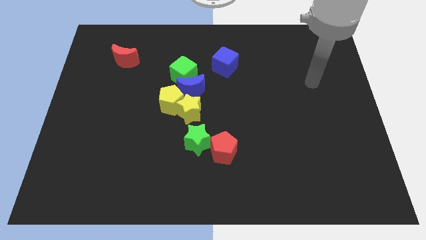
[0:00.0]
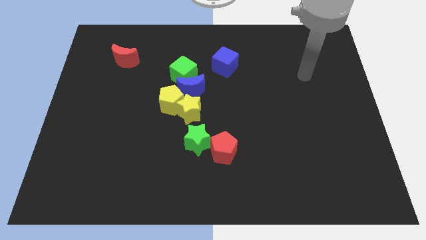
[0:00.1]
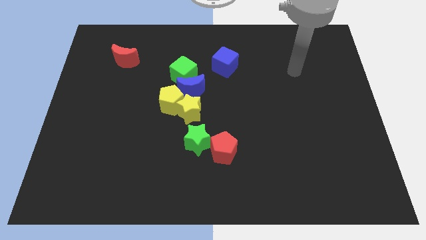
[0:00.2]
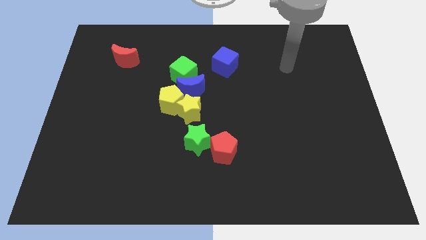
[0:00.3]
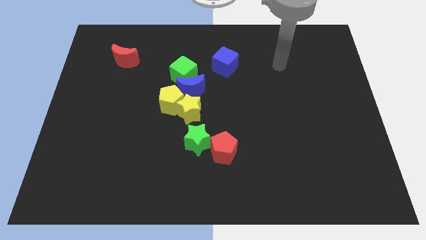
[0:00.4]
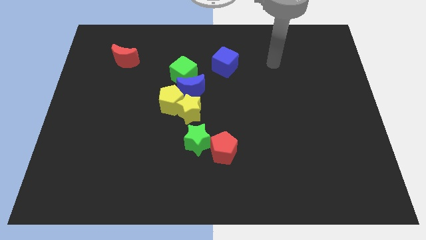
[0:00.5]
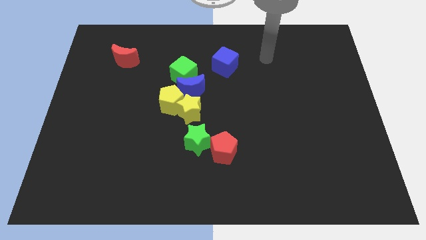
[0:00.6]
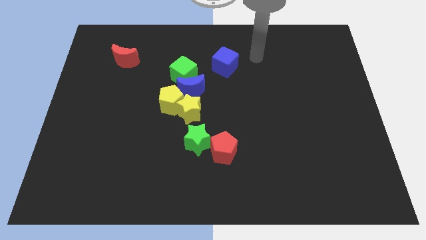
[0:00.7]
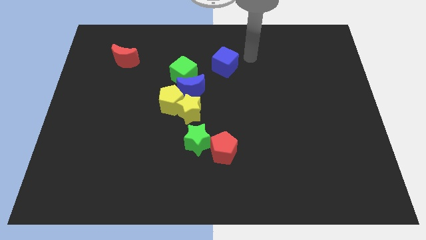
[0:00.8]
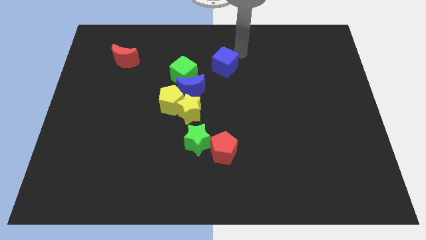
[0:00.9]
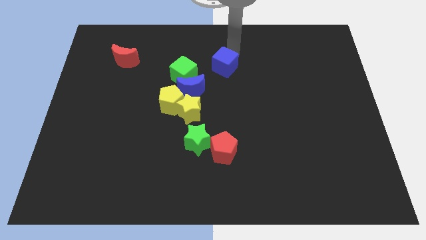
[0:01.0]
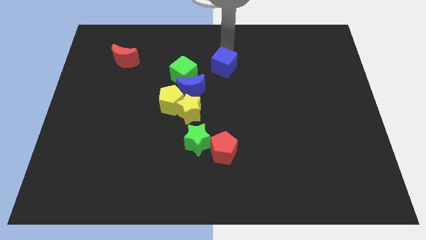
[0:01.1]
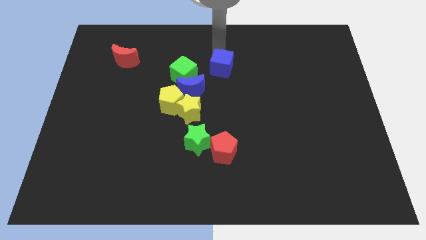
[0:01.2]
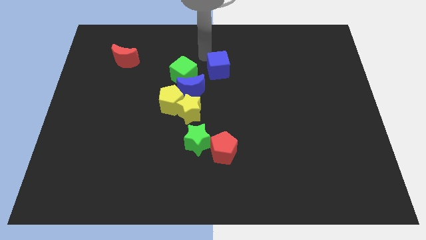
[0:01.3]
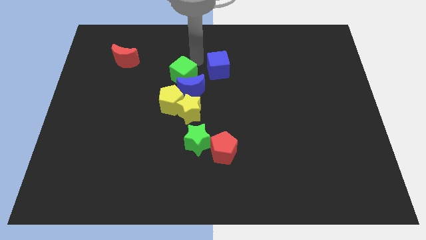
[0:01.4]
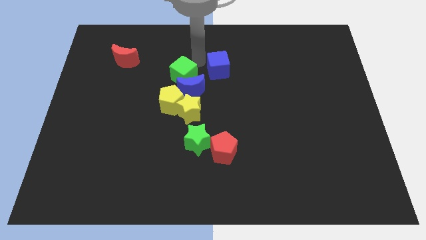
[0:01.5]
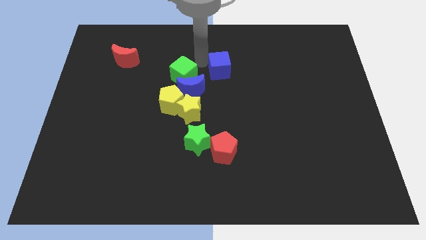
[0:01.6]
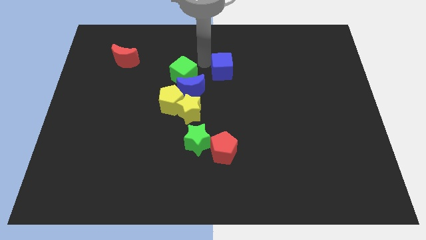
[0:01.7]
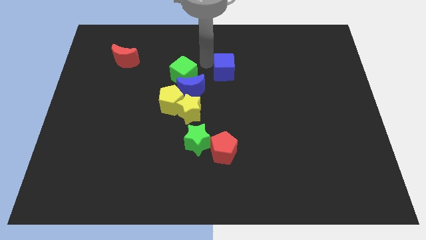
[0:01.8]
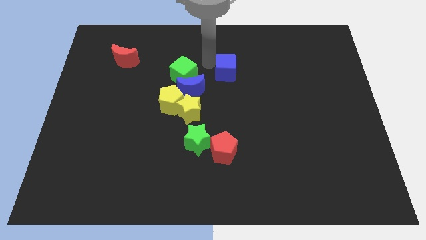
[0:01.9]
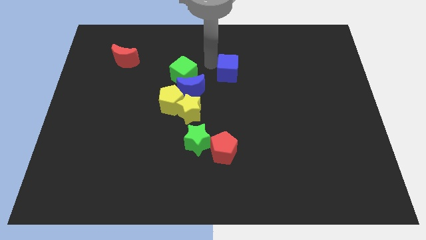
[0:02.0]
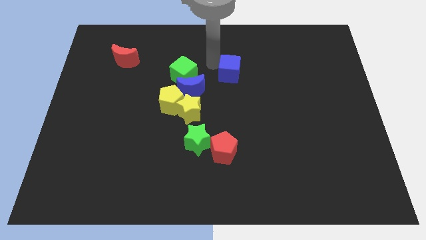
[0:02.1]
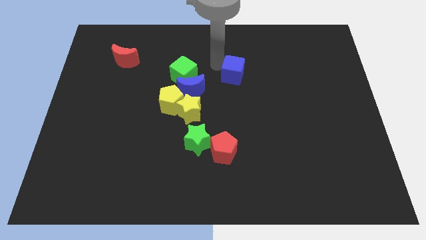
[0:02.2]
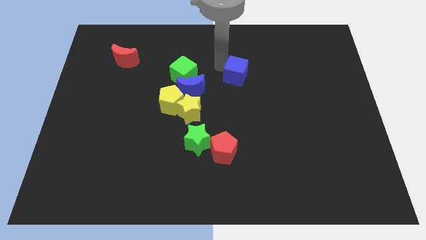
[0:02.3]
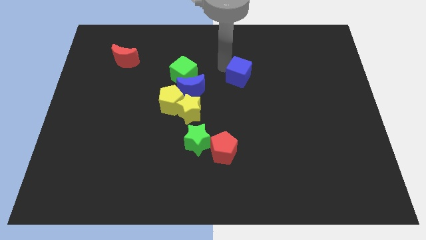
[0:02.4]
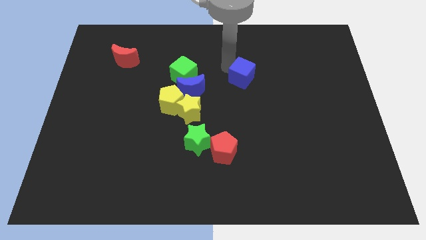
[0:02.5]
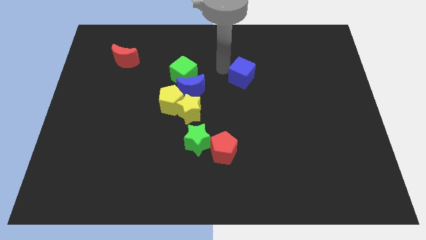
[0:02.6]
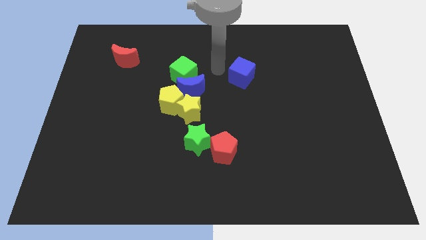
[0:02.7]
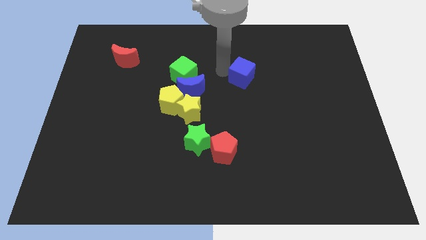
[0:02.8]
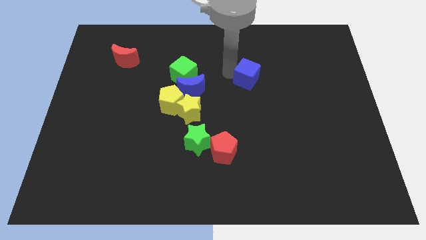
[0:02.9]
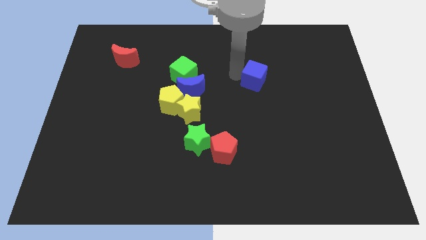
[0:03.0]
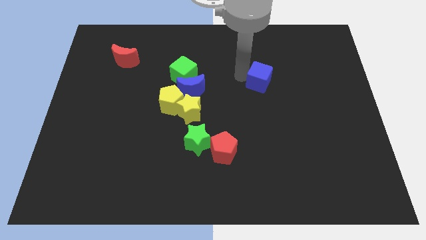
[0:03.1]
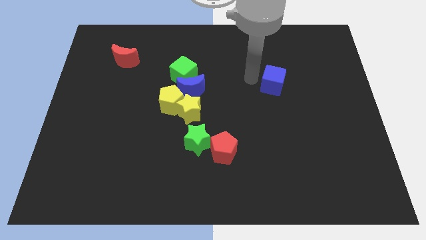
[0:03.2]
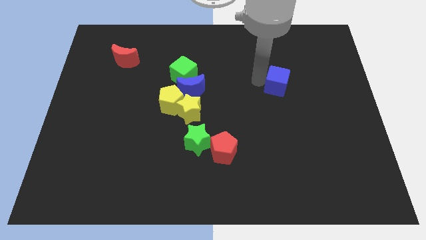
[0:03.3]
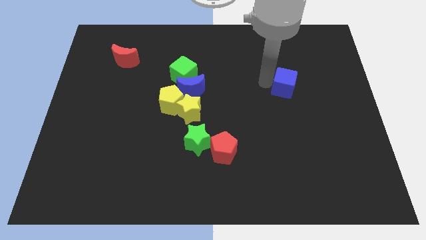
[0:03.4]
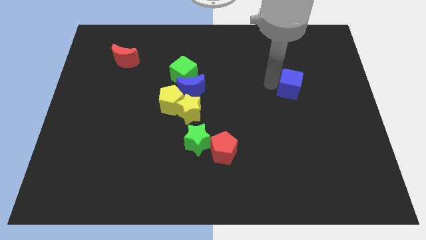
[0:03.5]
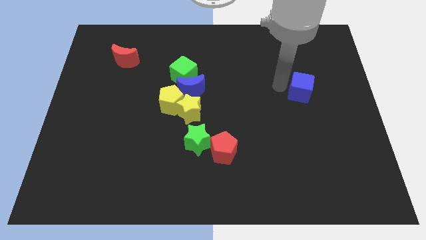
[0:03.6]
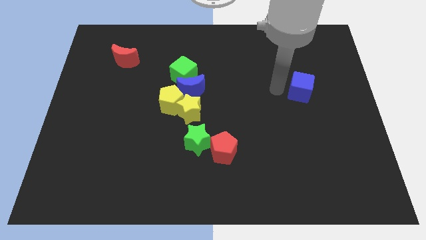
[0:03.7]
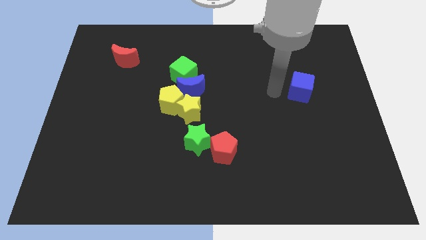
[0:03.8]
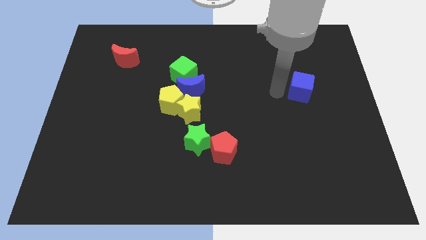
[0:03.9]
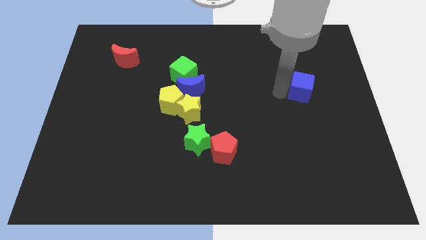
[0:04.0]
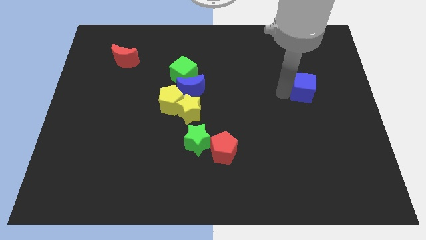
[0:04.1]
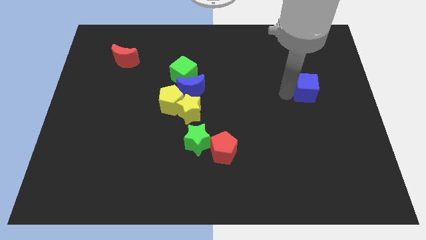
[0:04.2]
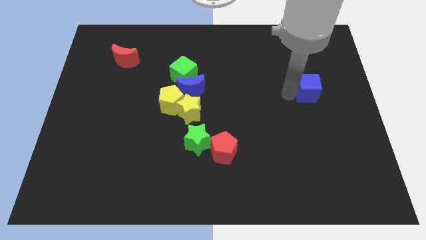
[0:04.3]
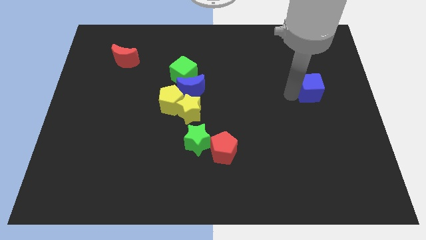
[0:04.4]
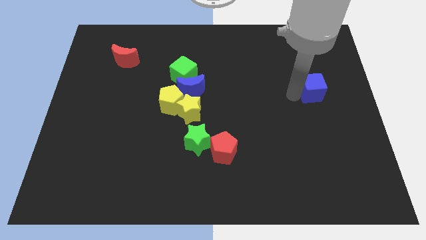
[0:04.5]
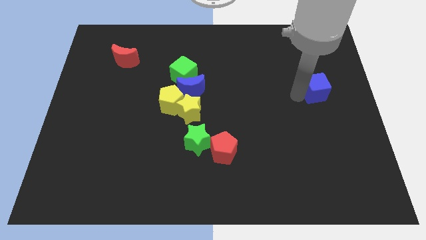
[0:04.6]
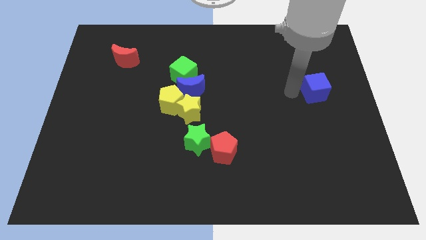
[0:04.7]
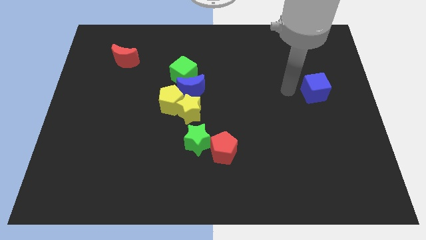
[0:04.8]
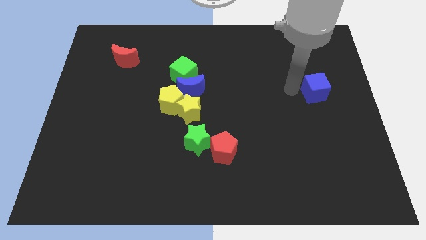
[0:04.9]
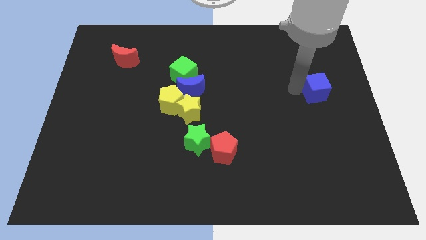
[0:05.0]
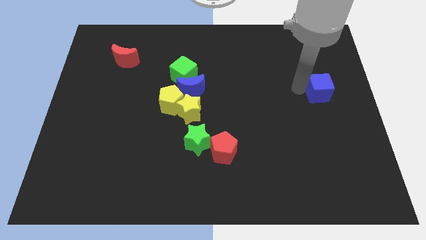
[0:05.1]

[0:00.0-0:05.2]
push the blue cube to the right side

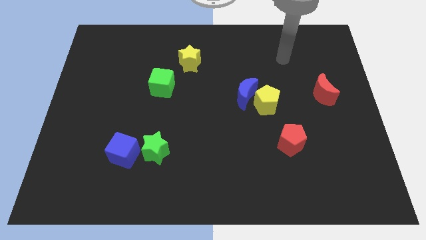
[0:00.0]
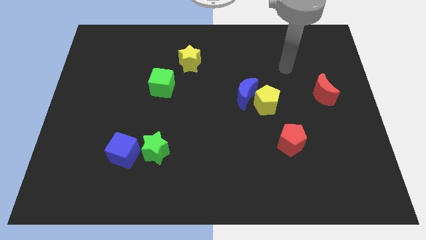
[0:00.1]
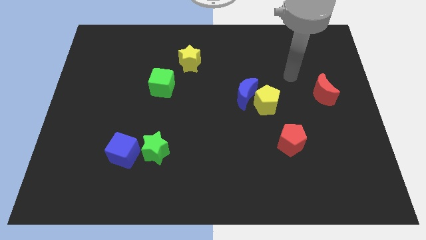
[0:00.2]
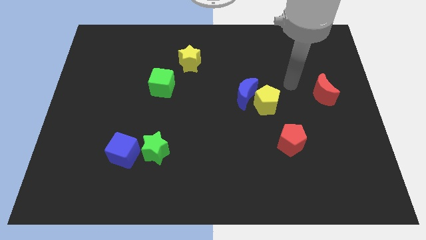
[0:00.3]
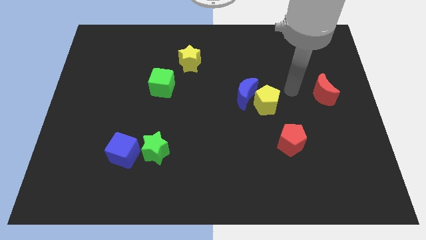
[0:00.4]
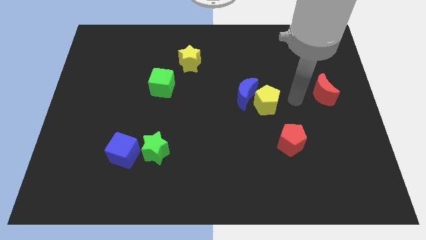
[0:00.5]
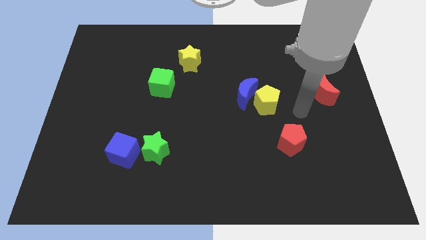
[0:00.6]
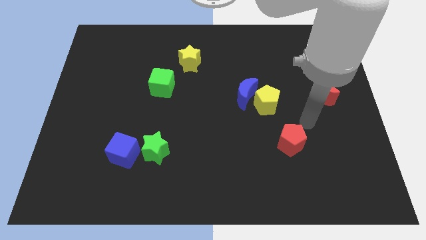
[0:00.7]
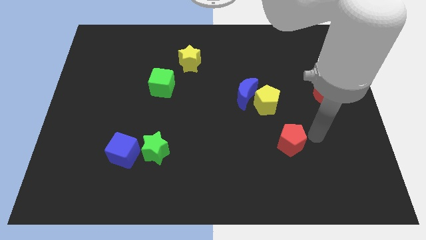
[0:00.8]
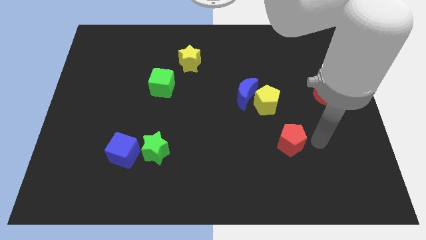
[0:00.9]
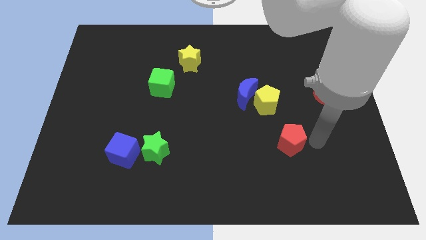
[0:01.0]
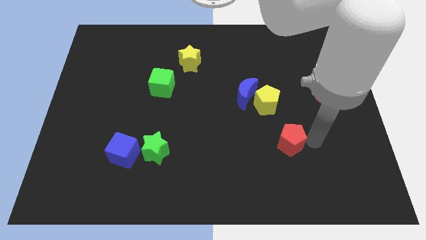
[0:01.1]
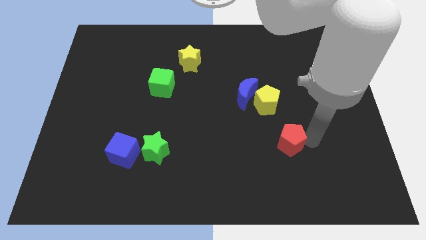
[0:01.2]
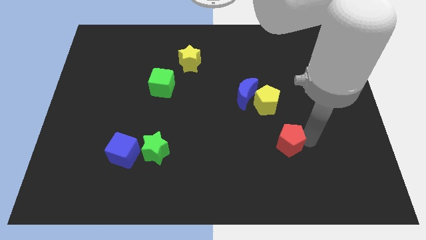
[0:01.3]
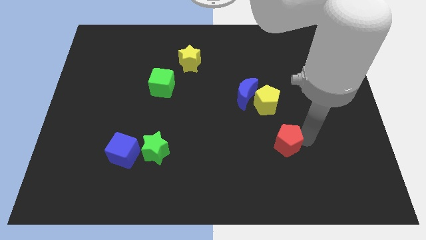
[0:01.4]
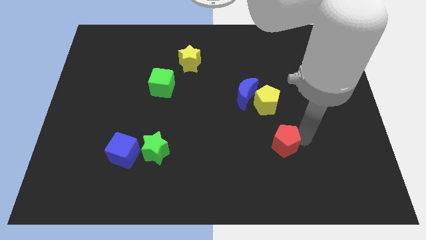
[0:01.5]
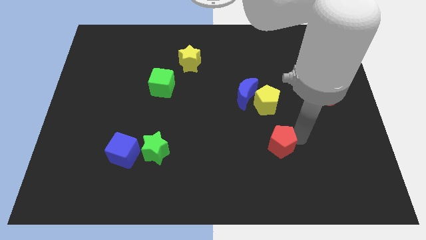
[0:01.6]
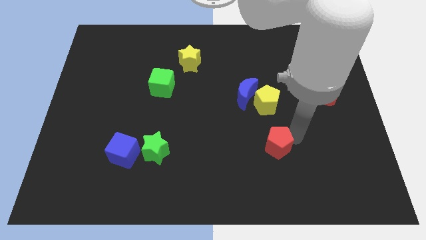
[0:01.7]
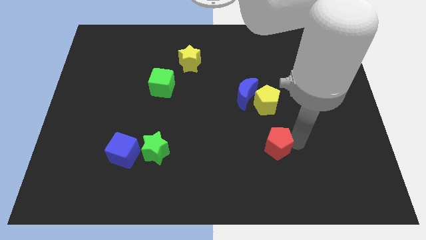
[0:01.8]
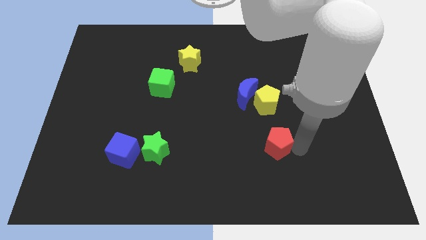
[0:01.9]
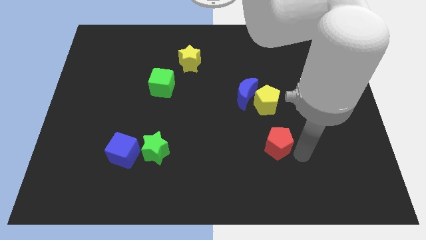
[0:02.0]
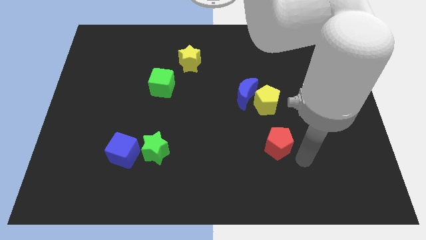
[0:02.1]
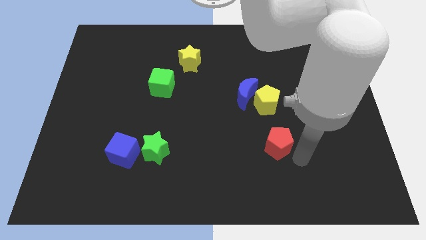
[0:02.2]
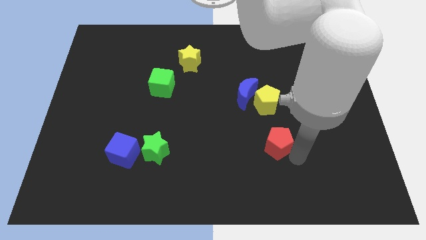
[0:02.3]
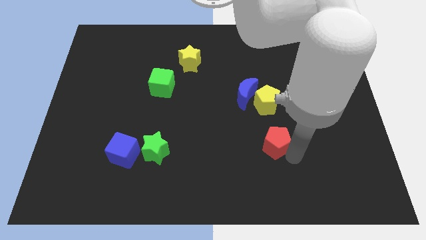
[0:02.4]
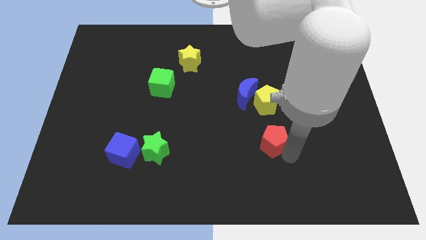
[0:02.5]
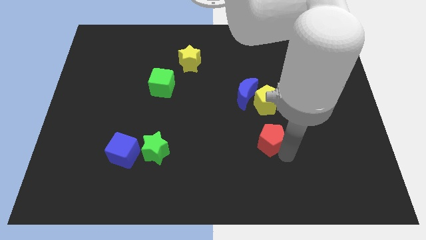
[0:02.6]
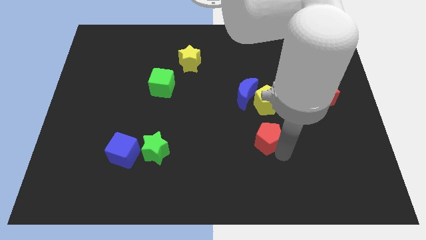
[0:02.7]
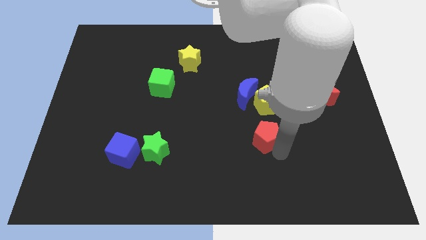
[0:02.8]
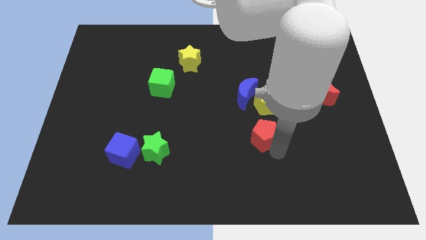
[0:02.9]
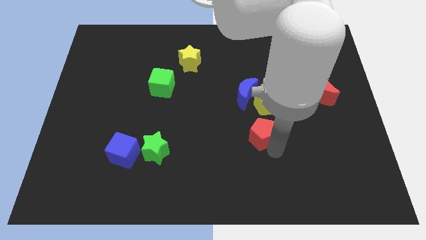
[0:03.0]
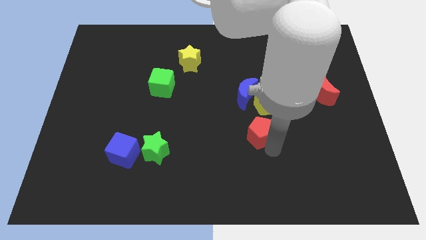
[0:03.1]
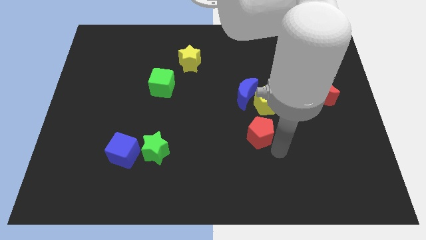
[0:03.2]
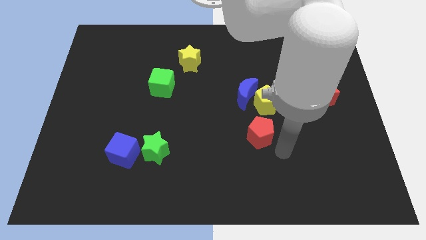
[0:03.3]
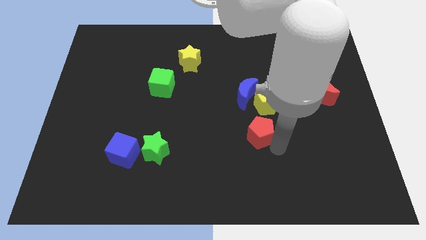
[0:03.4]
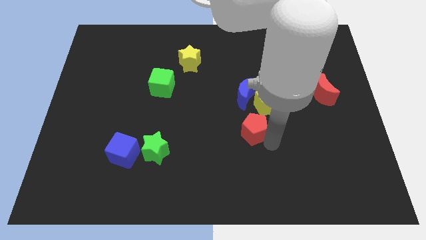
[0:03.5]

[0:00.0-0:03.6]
push the red pentagon to the middle of the board
